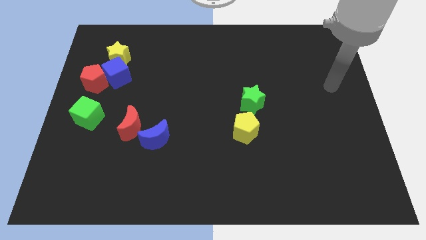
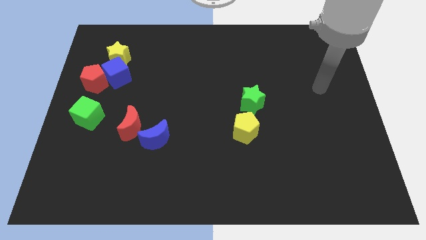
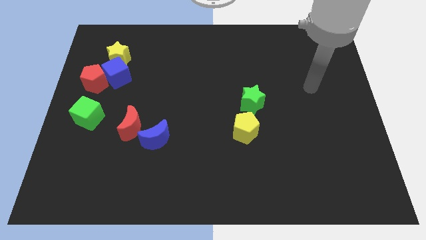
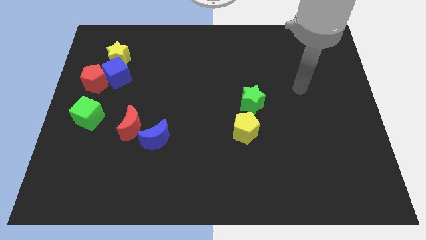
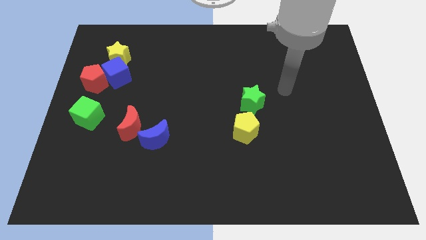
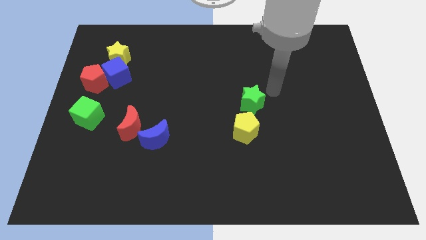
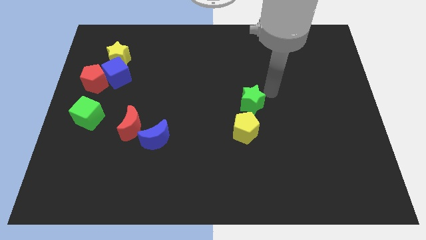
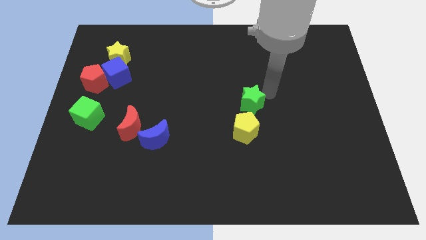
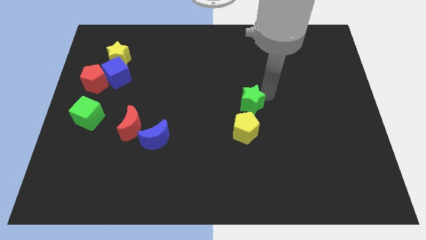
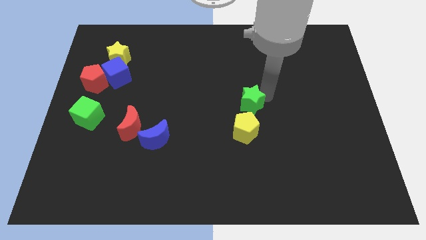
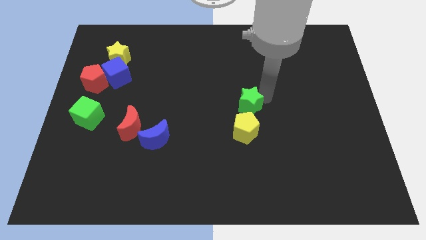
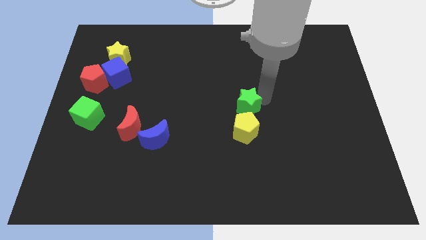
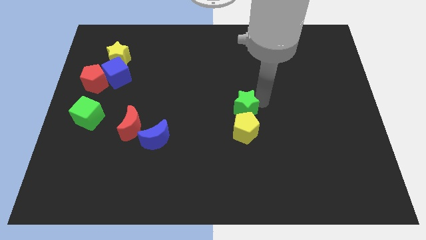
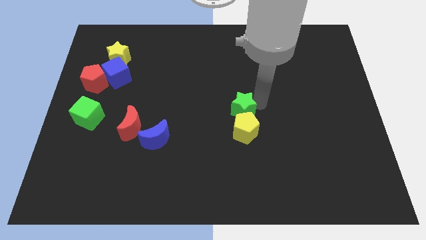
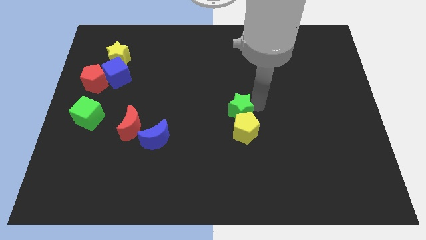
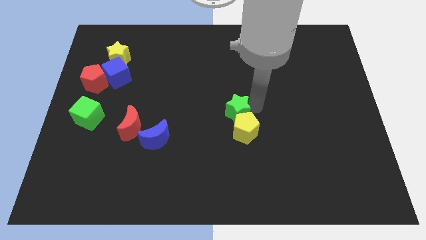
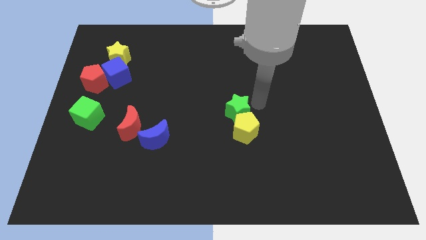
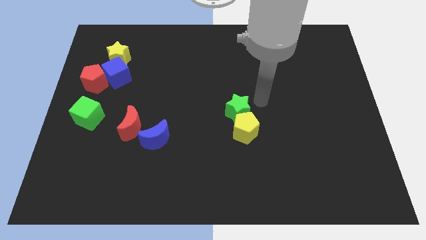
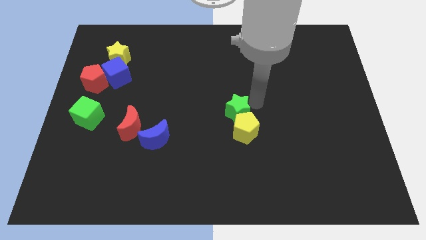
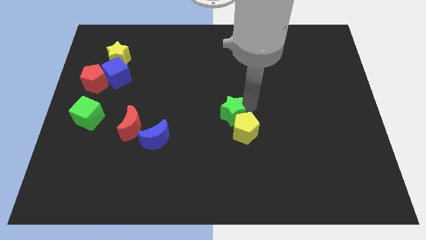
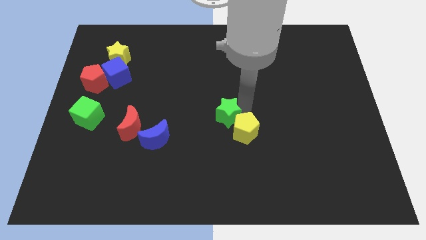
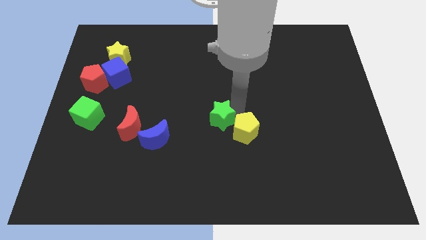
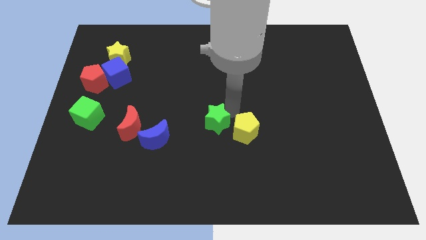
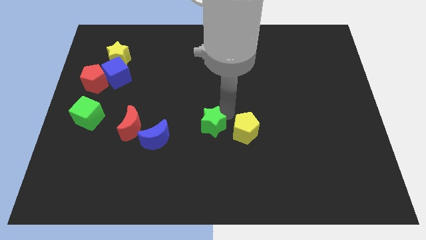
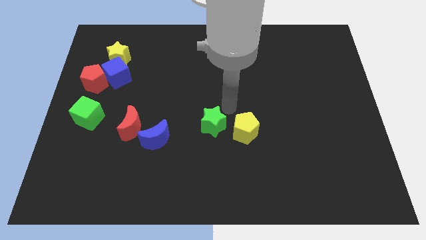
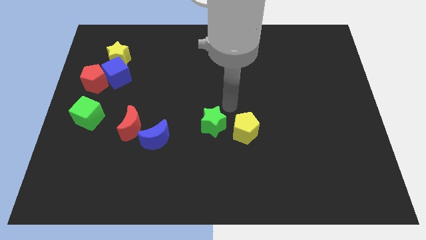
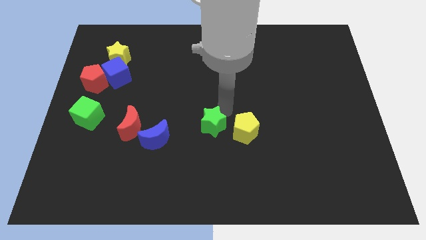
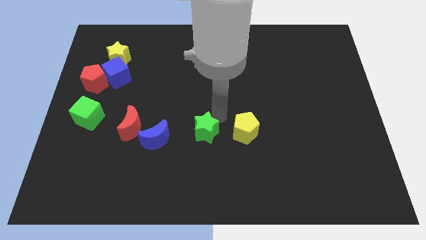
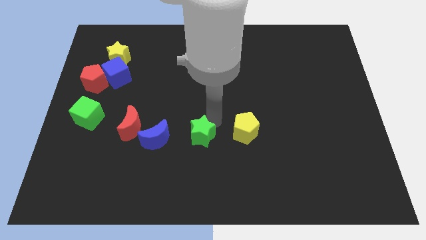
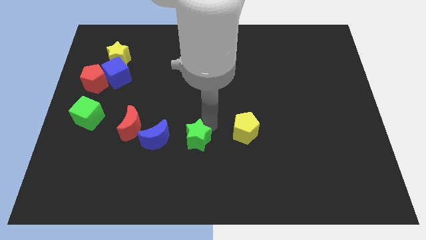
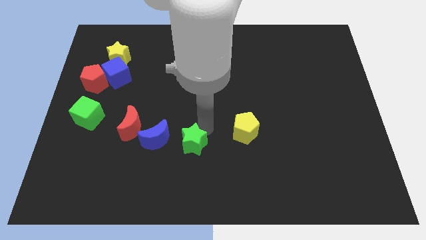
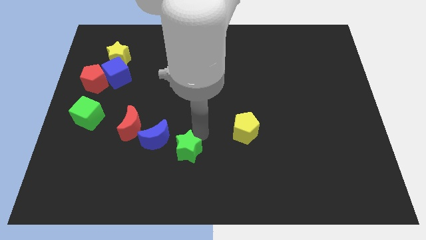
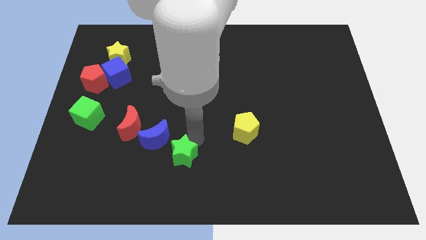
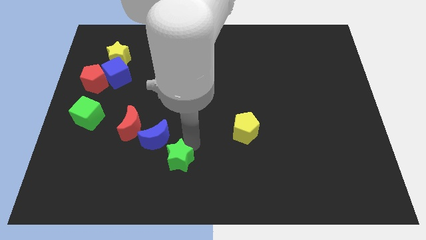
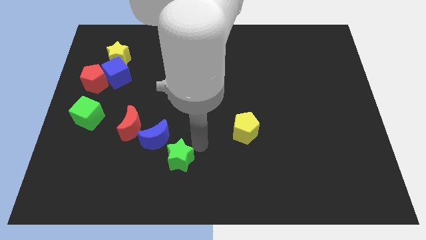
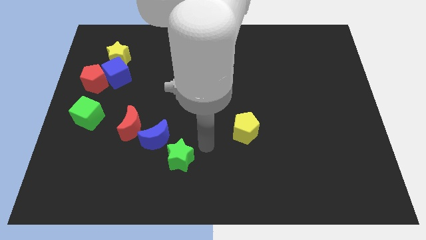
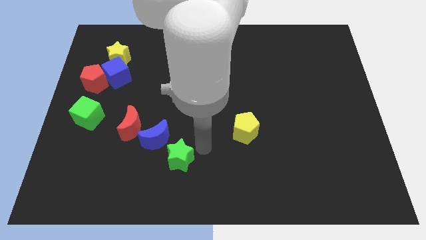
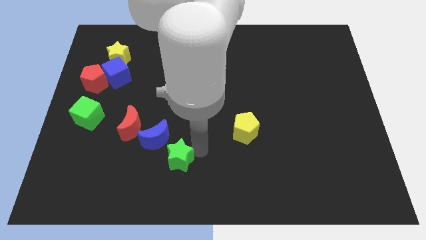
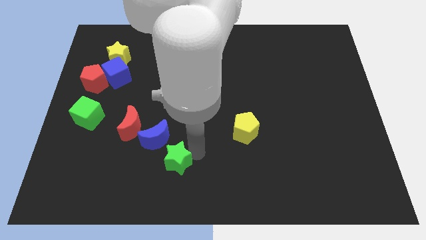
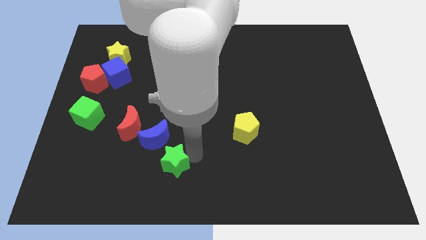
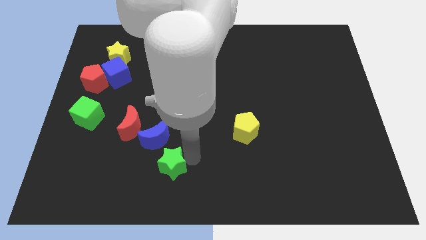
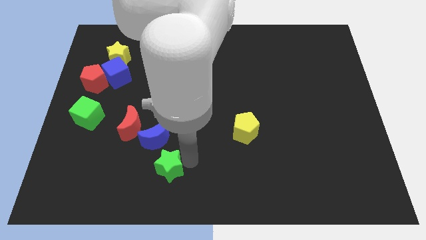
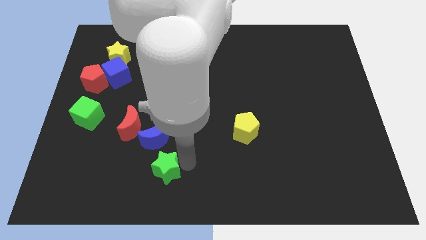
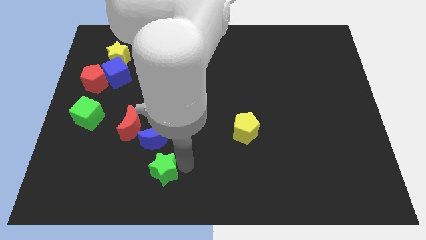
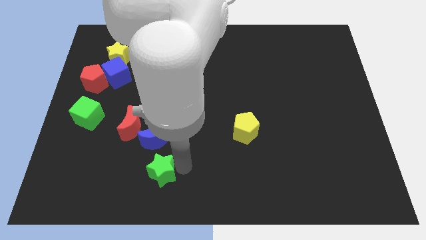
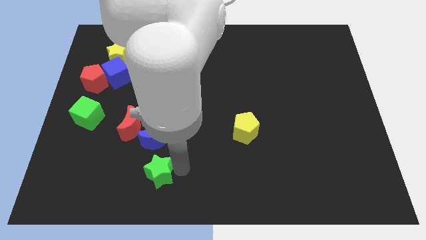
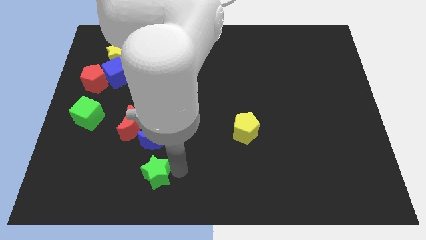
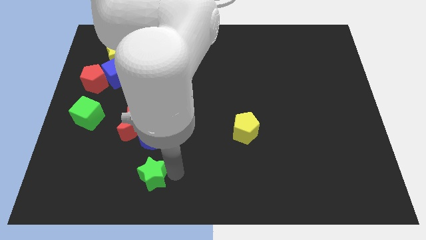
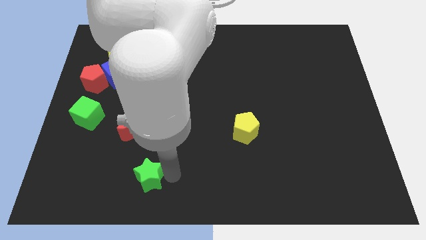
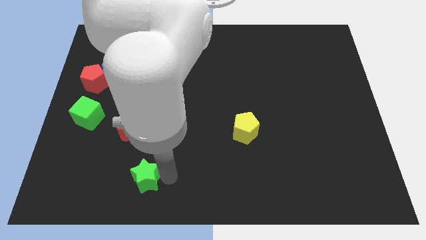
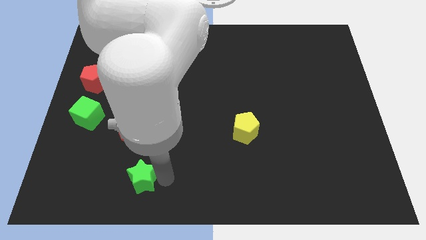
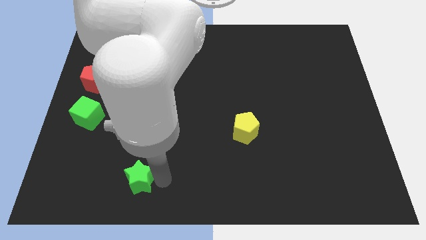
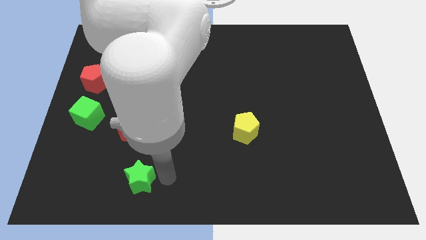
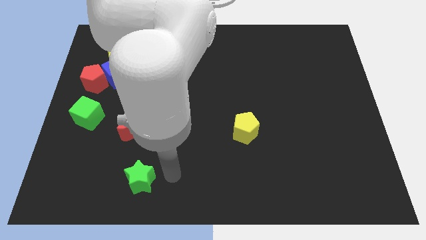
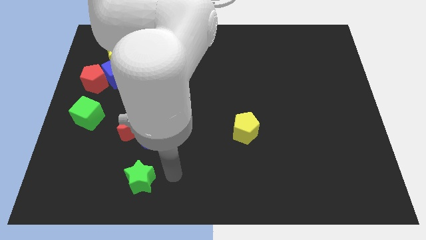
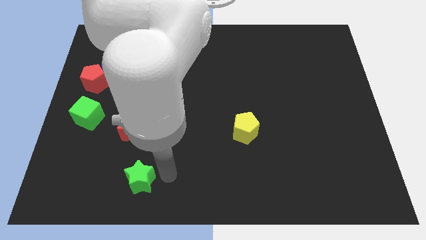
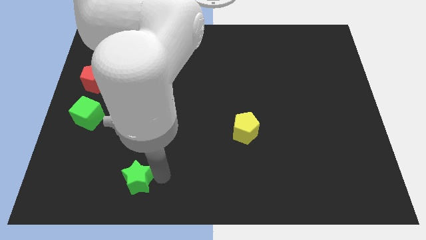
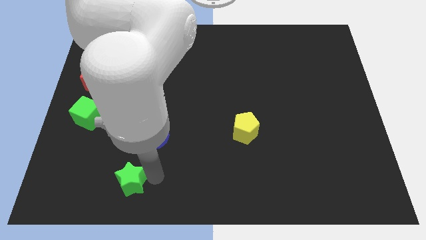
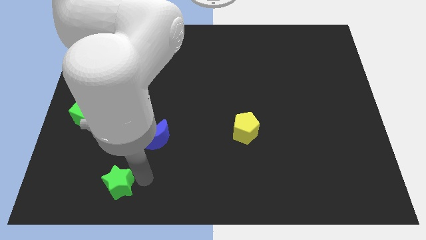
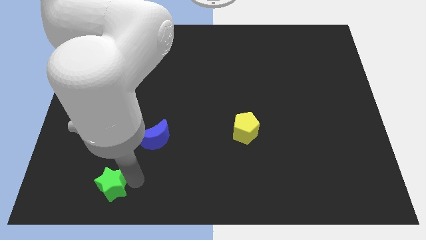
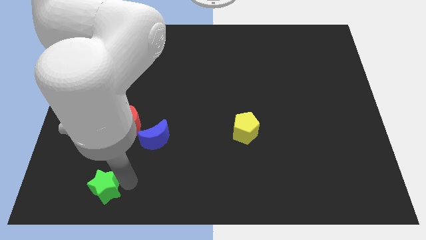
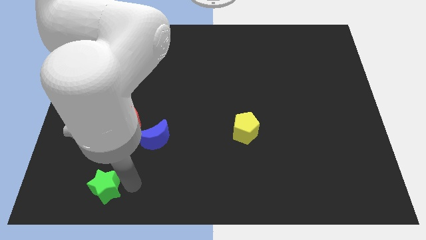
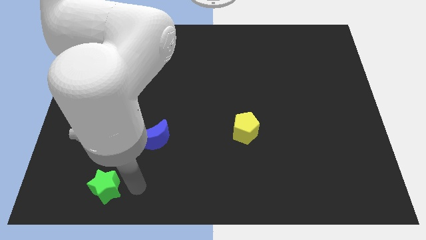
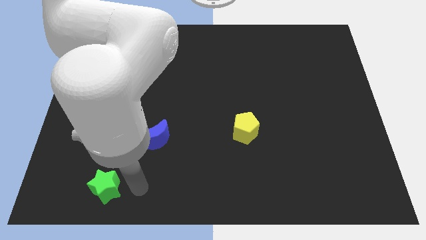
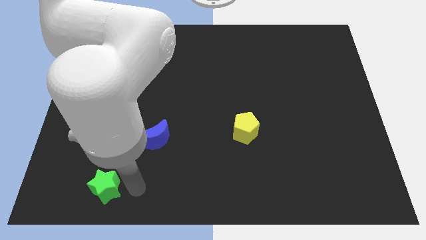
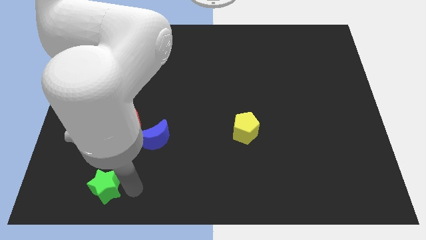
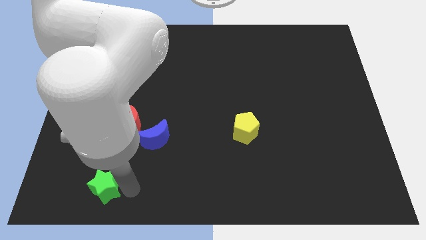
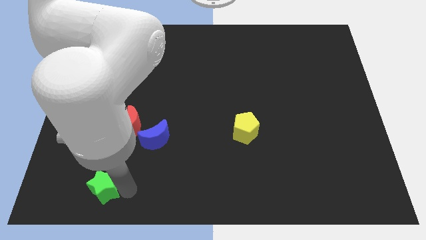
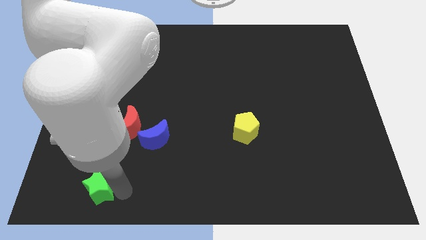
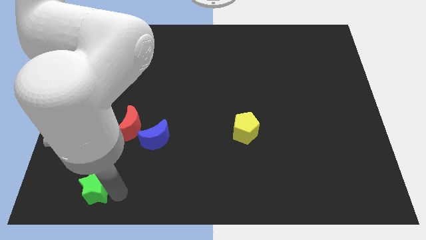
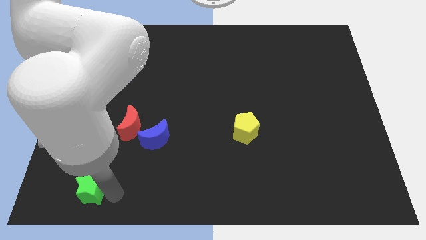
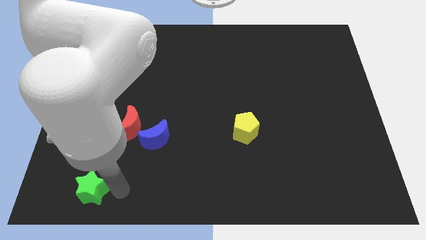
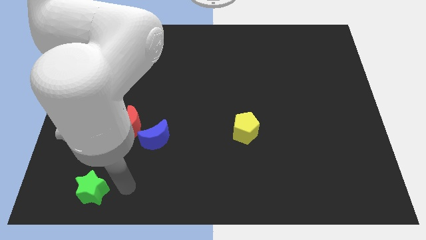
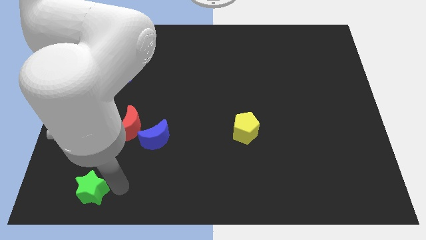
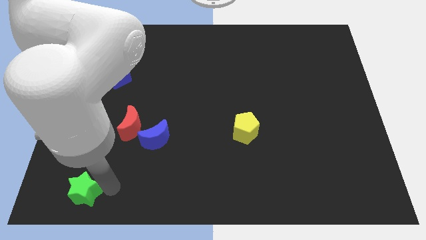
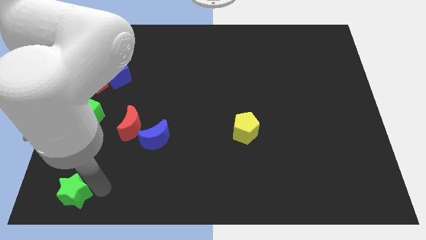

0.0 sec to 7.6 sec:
put the green star to the bottom left
